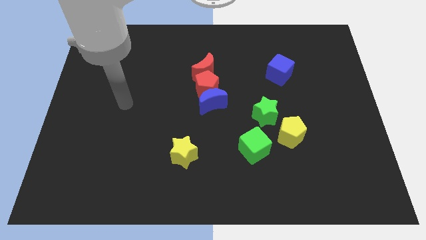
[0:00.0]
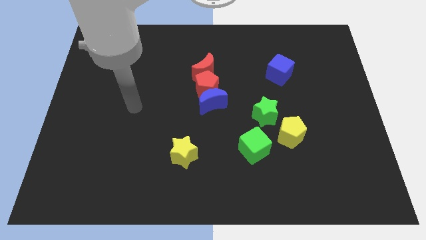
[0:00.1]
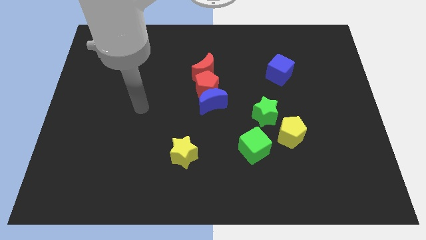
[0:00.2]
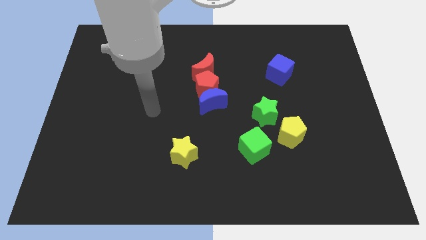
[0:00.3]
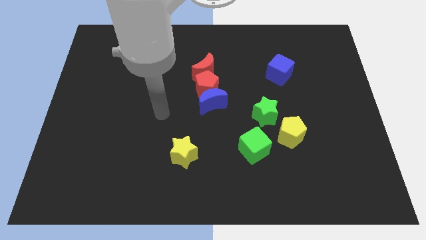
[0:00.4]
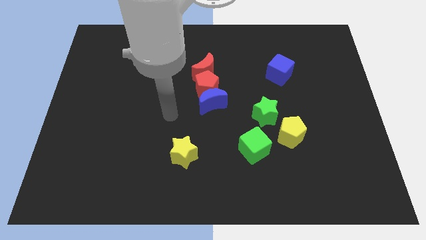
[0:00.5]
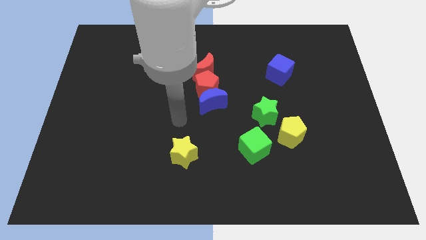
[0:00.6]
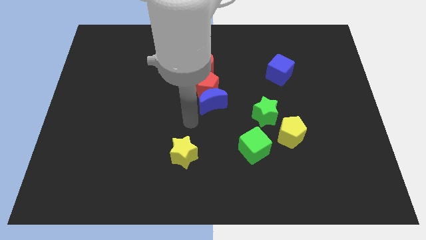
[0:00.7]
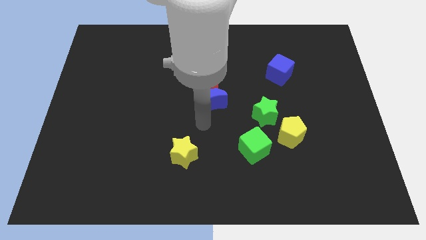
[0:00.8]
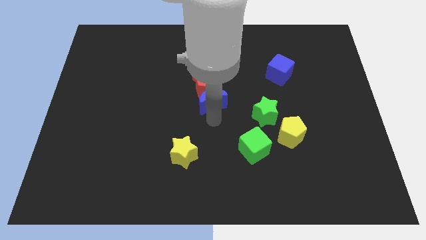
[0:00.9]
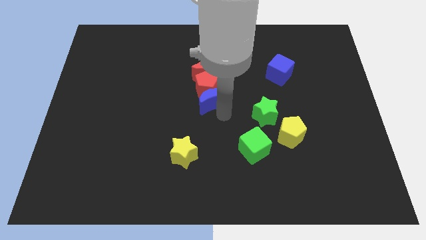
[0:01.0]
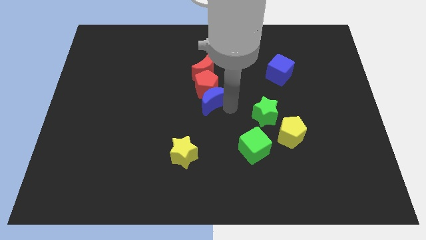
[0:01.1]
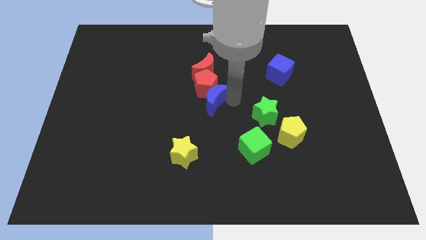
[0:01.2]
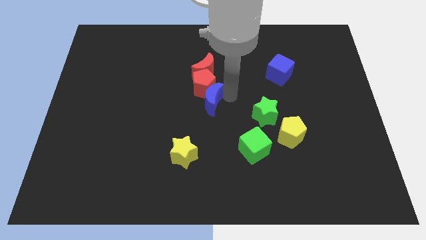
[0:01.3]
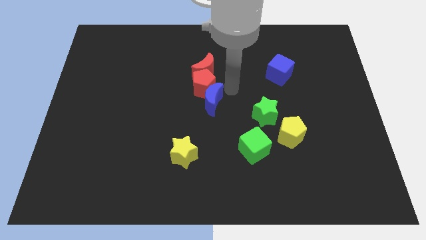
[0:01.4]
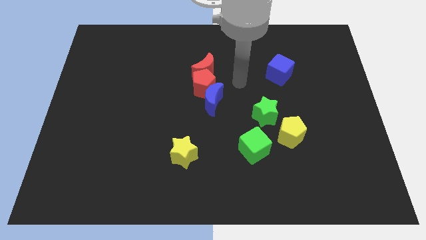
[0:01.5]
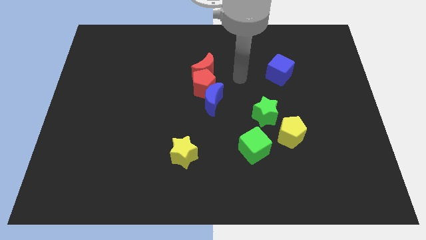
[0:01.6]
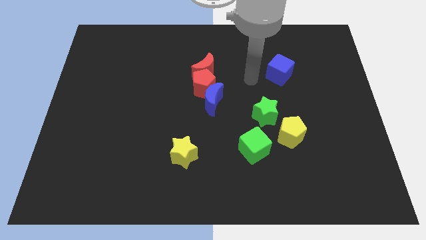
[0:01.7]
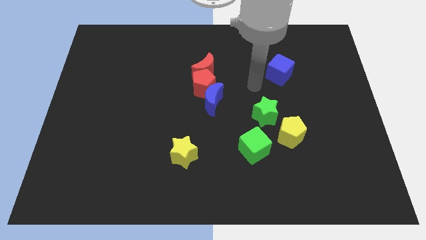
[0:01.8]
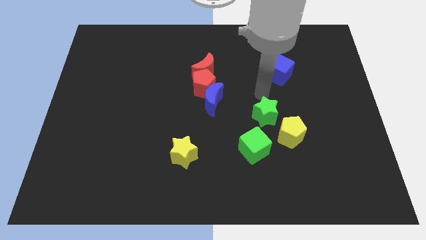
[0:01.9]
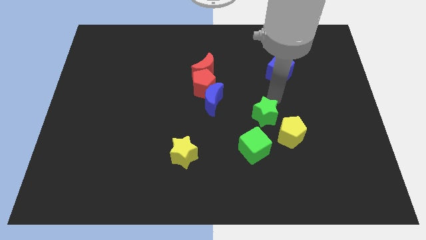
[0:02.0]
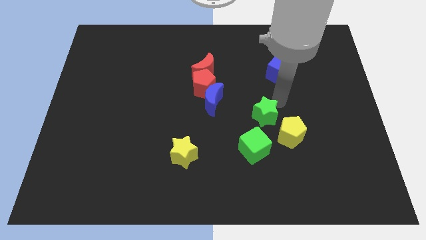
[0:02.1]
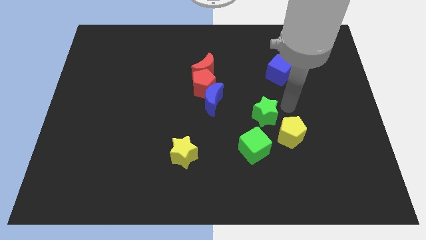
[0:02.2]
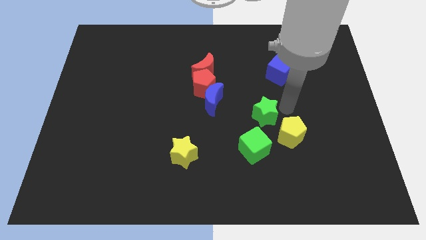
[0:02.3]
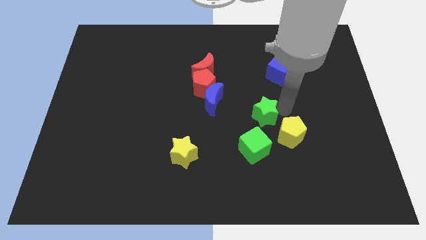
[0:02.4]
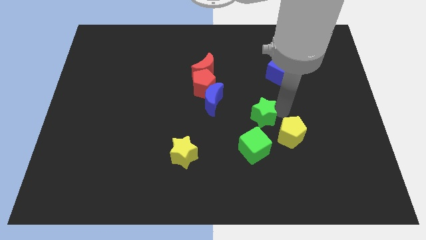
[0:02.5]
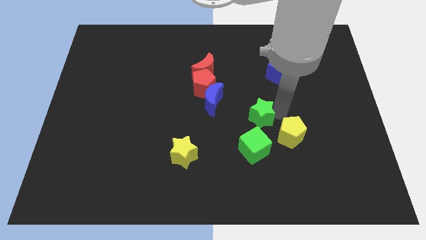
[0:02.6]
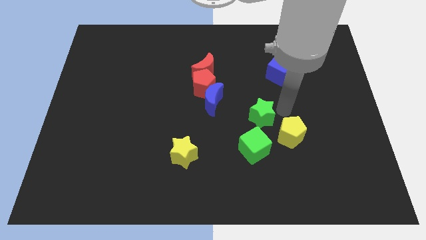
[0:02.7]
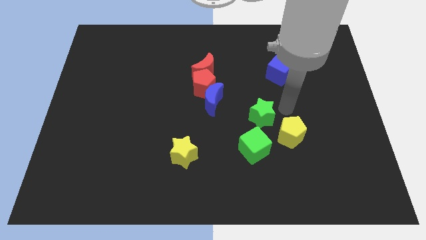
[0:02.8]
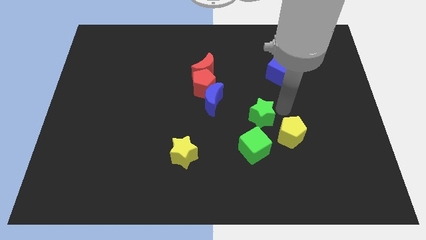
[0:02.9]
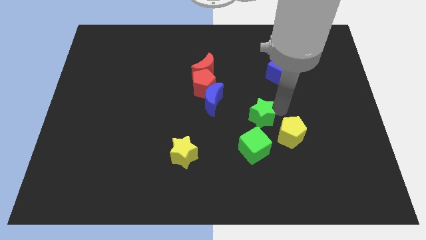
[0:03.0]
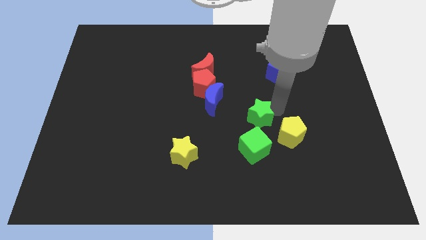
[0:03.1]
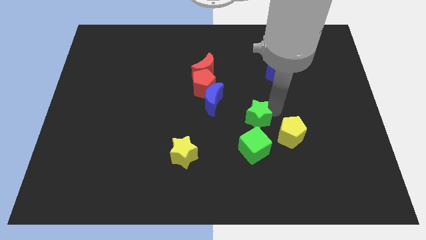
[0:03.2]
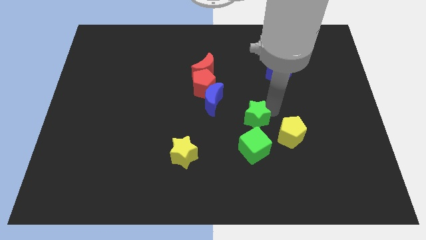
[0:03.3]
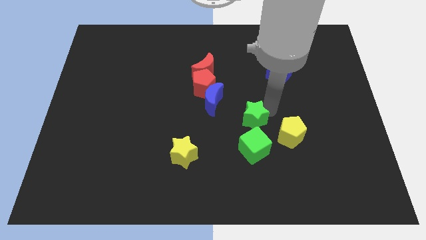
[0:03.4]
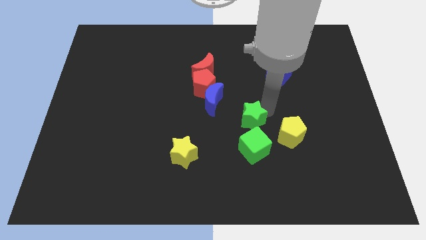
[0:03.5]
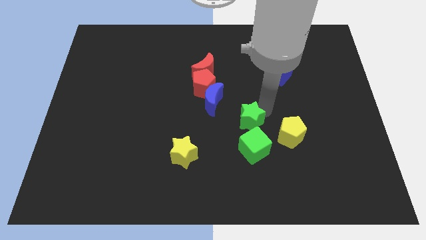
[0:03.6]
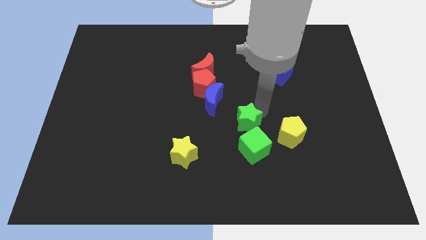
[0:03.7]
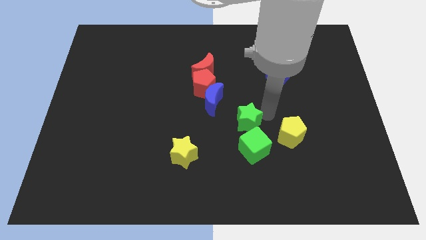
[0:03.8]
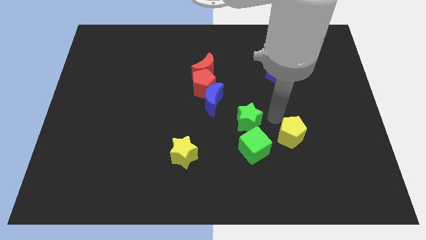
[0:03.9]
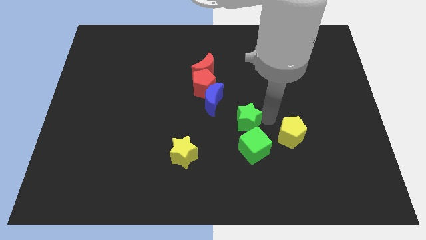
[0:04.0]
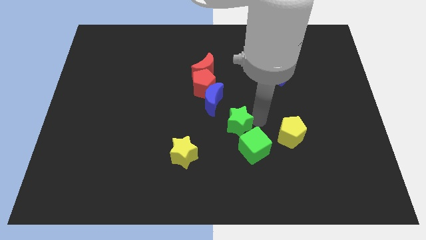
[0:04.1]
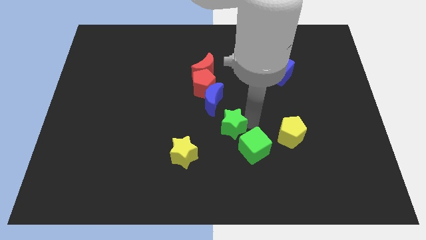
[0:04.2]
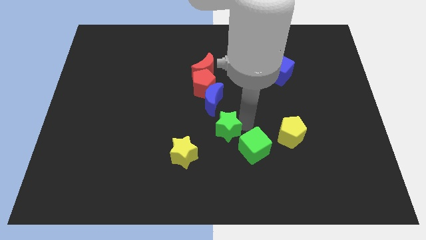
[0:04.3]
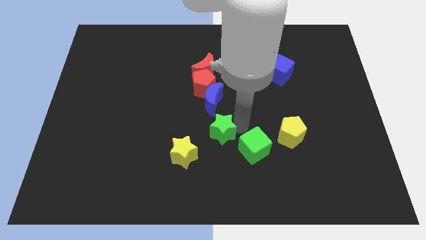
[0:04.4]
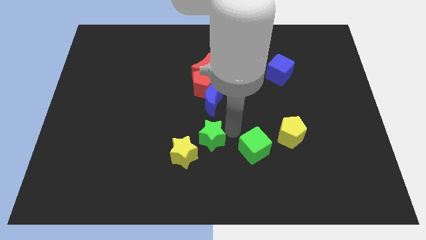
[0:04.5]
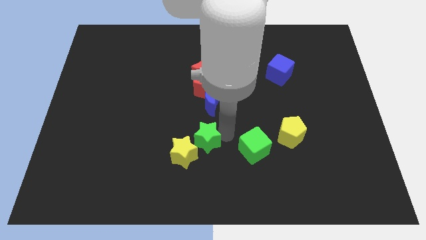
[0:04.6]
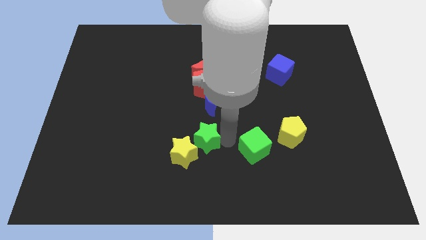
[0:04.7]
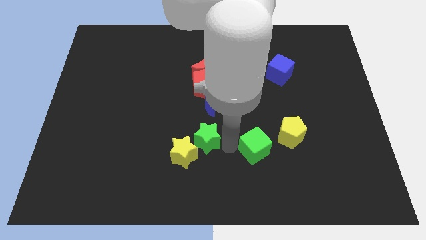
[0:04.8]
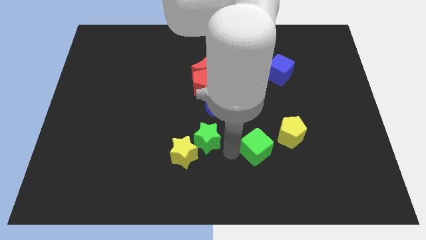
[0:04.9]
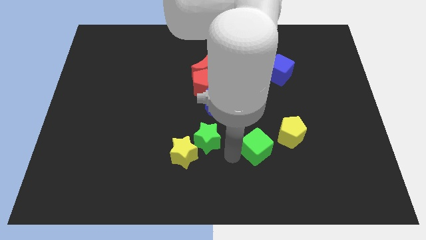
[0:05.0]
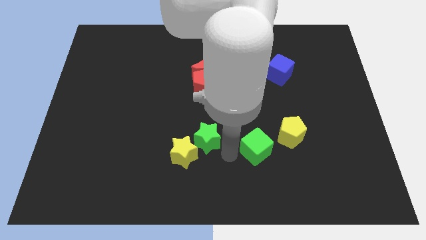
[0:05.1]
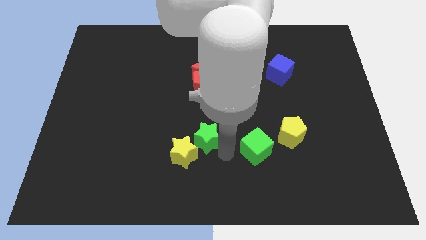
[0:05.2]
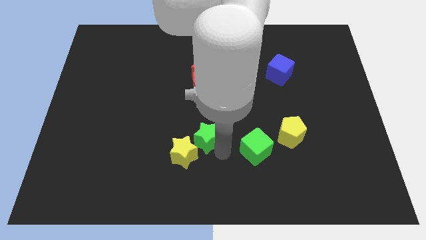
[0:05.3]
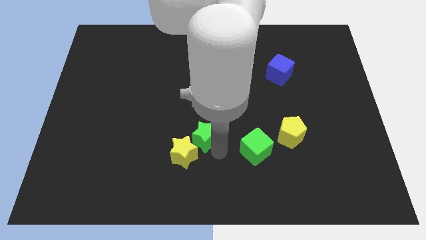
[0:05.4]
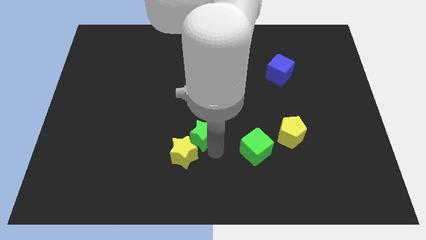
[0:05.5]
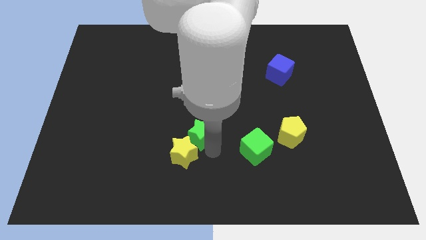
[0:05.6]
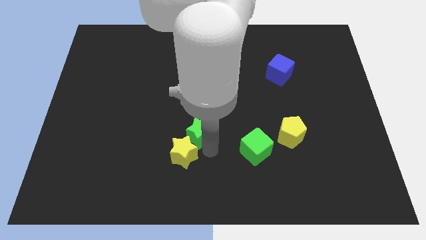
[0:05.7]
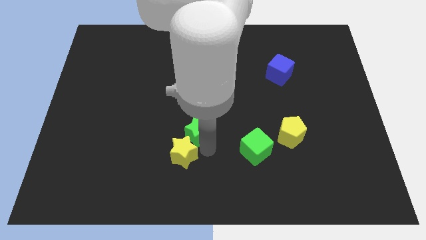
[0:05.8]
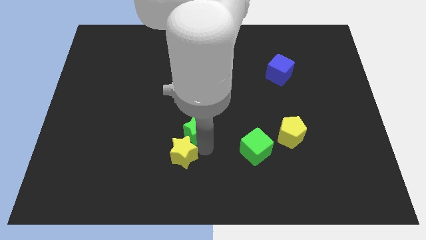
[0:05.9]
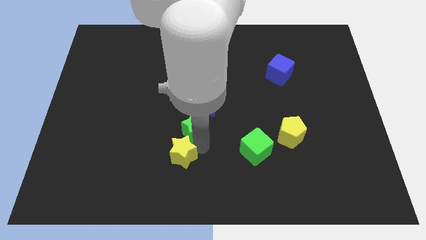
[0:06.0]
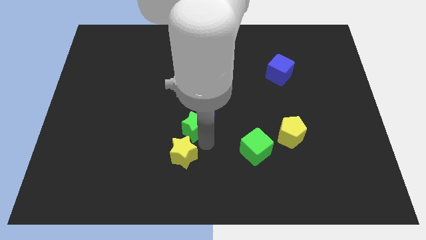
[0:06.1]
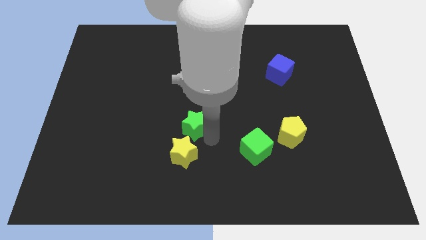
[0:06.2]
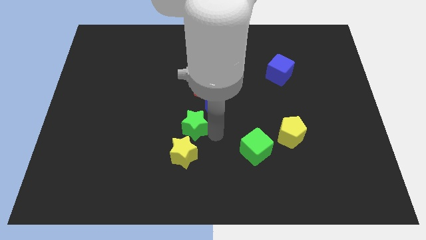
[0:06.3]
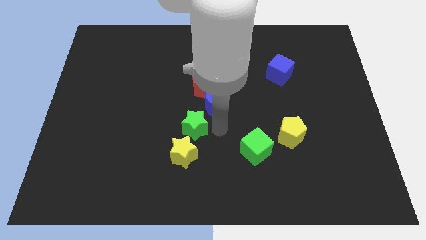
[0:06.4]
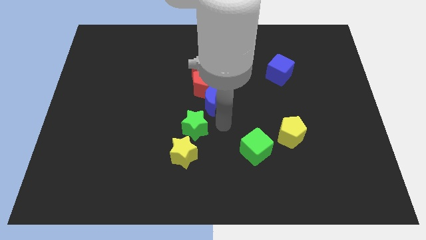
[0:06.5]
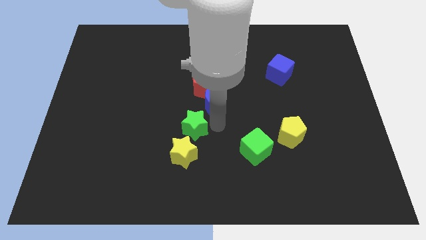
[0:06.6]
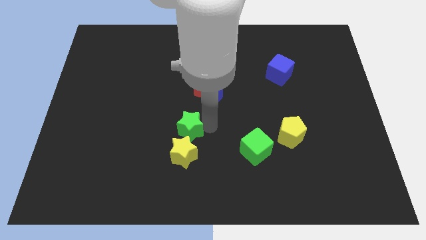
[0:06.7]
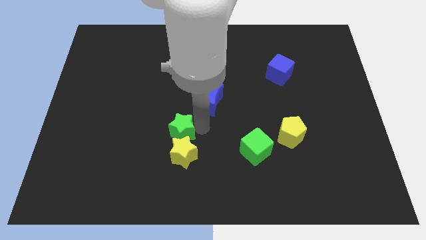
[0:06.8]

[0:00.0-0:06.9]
slide the green star to the top left of the yellow star
